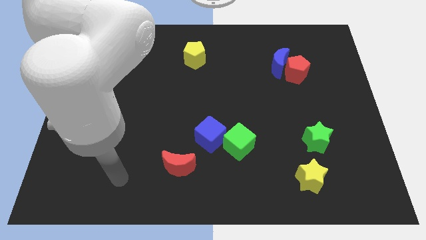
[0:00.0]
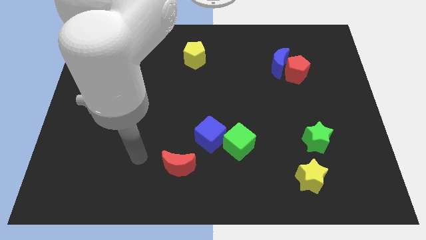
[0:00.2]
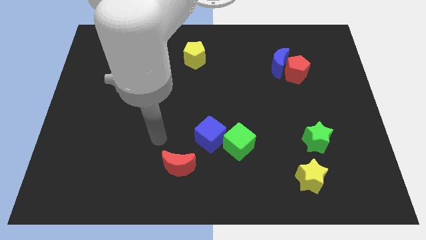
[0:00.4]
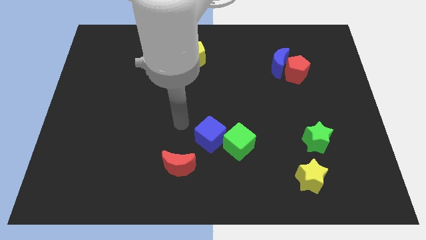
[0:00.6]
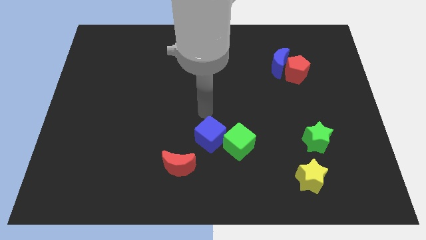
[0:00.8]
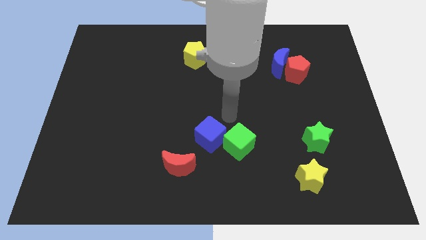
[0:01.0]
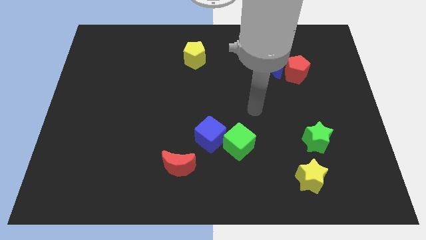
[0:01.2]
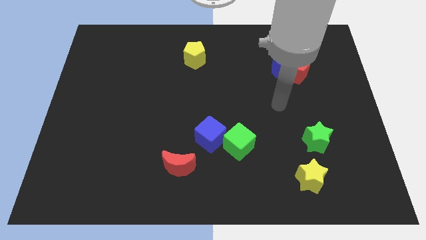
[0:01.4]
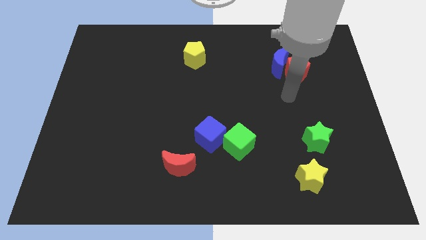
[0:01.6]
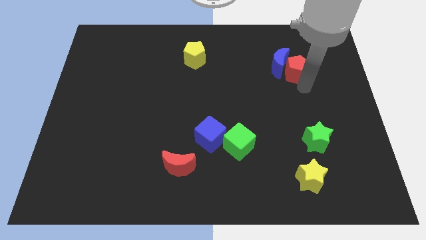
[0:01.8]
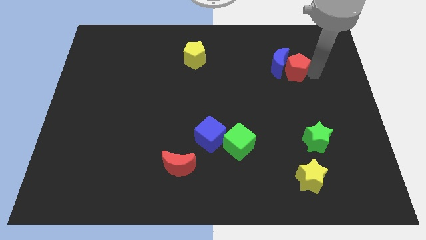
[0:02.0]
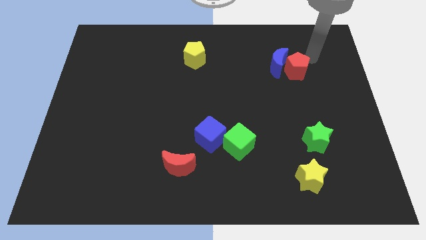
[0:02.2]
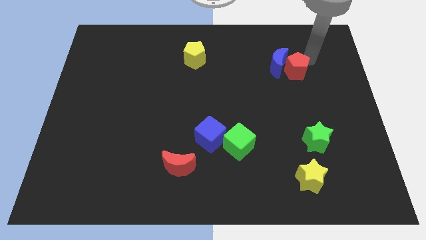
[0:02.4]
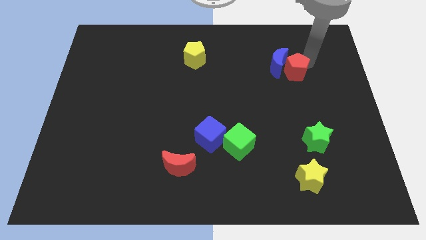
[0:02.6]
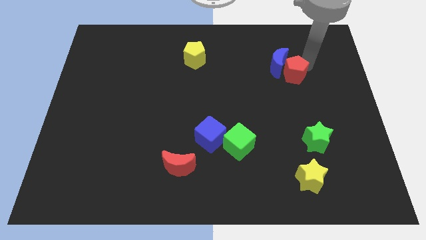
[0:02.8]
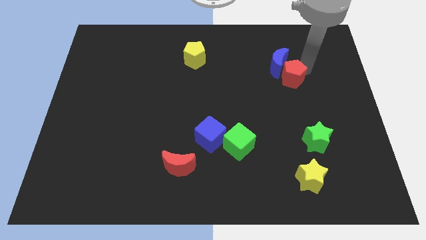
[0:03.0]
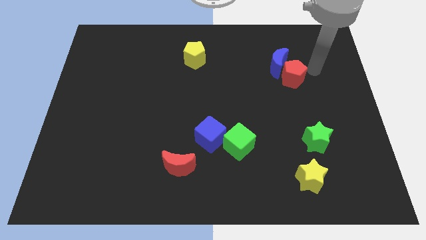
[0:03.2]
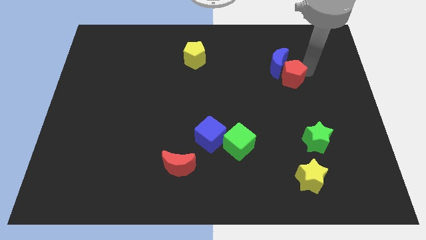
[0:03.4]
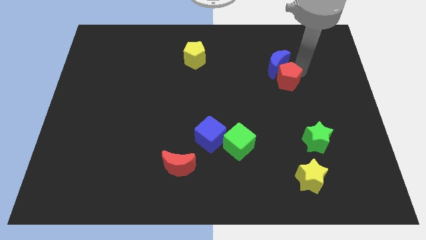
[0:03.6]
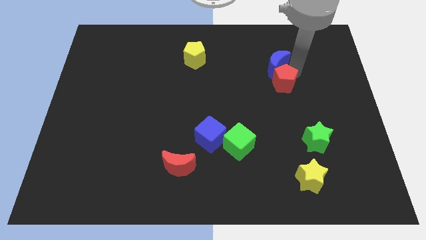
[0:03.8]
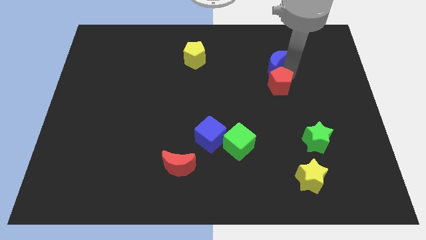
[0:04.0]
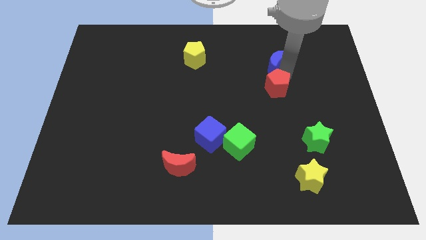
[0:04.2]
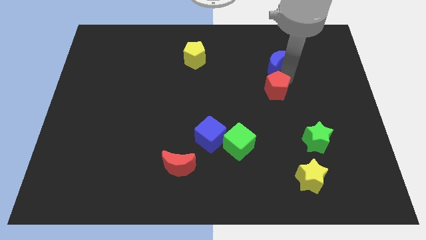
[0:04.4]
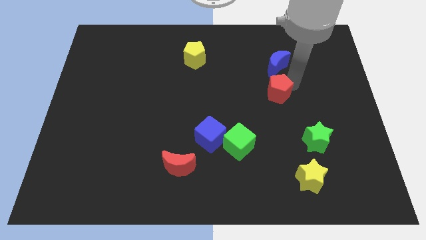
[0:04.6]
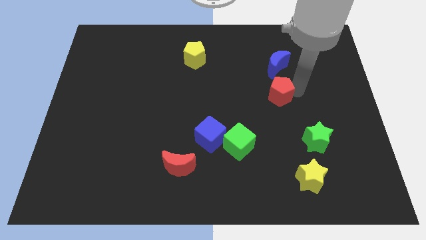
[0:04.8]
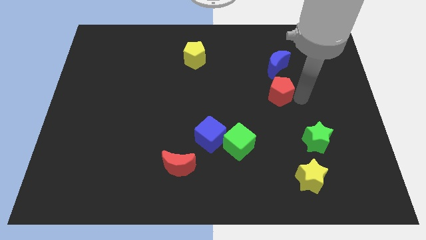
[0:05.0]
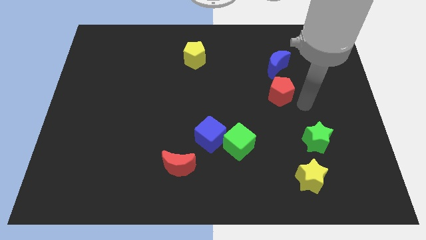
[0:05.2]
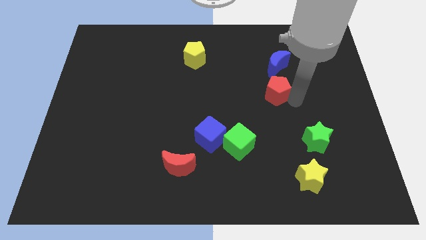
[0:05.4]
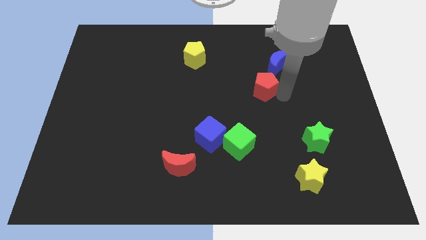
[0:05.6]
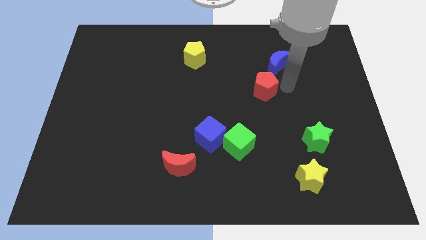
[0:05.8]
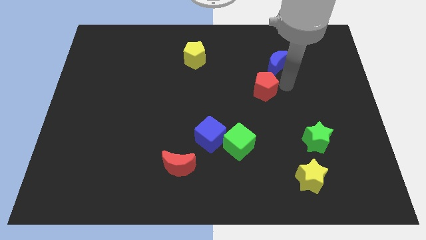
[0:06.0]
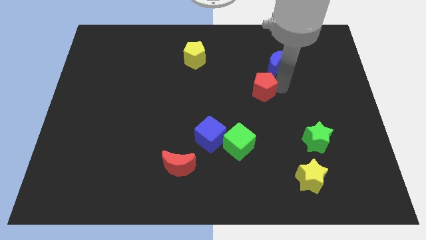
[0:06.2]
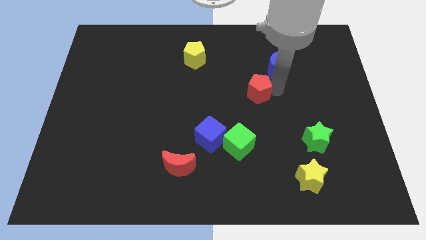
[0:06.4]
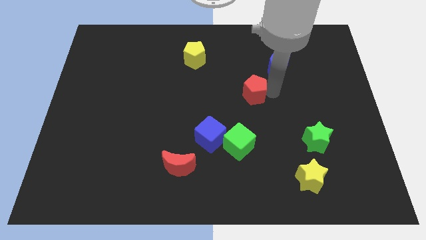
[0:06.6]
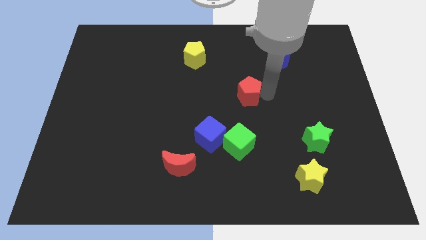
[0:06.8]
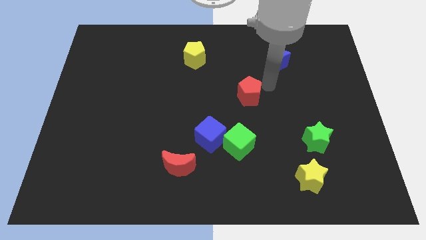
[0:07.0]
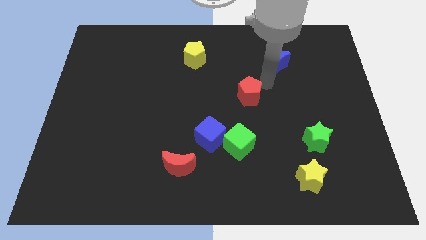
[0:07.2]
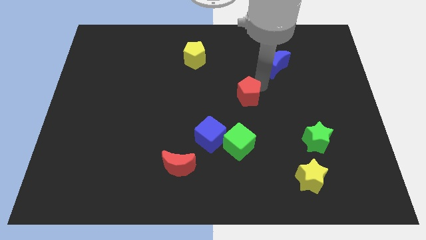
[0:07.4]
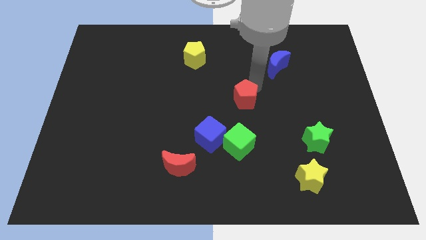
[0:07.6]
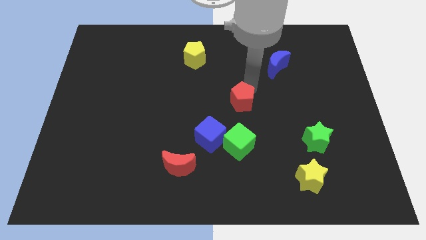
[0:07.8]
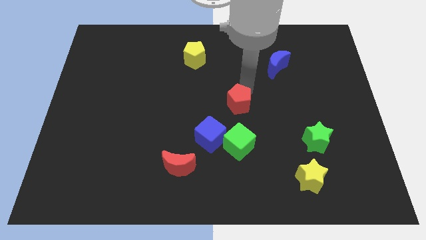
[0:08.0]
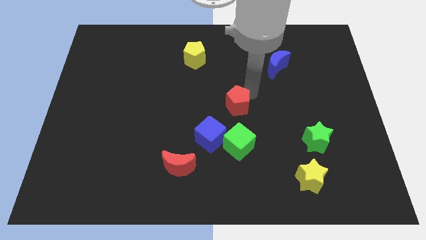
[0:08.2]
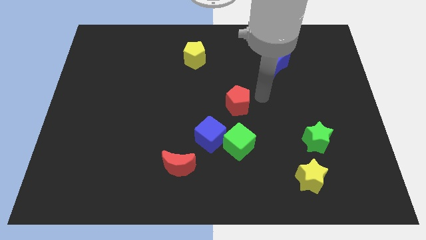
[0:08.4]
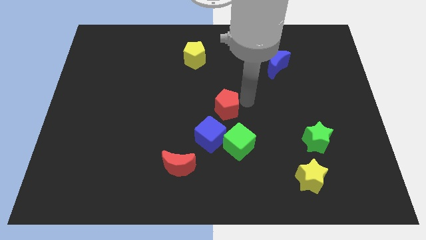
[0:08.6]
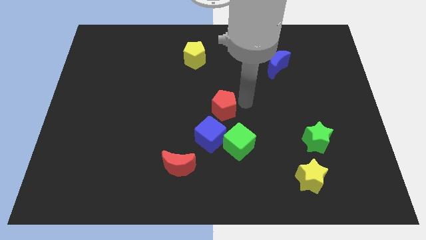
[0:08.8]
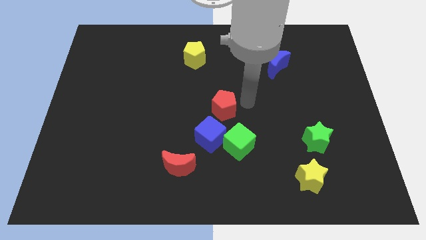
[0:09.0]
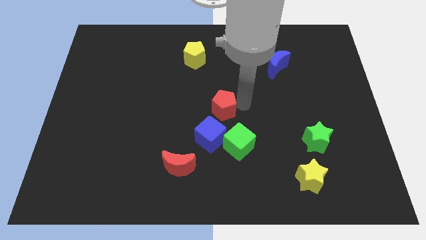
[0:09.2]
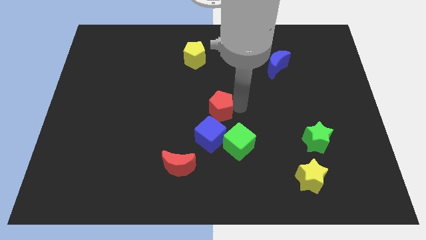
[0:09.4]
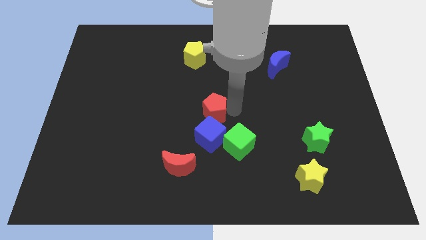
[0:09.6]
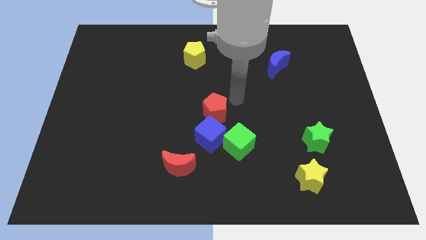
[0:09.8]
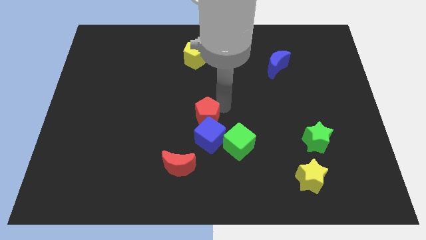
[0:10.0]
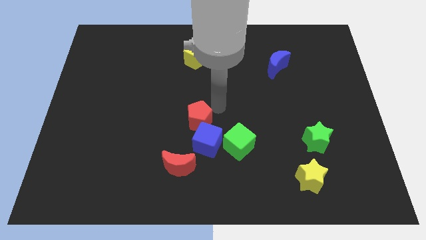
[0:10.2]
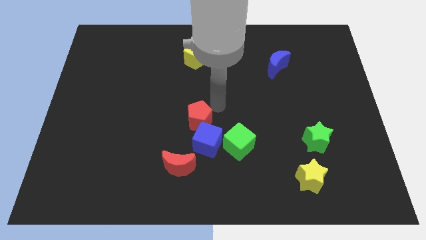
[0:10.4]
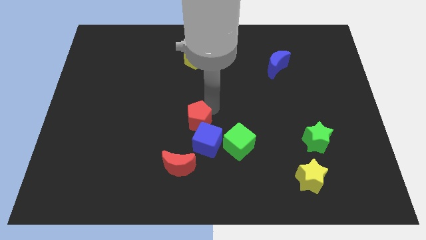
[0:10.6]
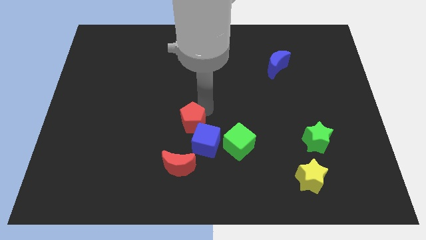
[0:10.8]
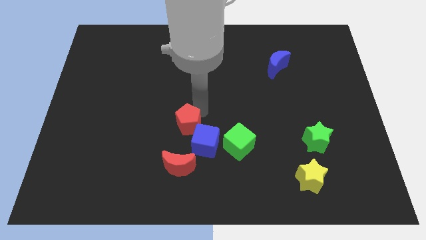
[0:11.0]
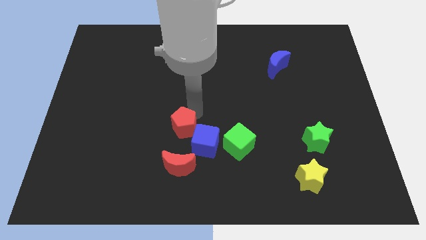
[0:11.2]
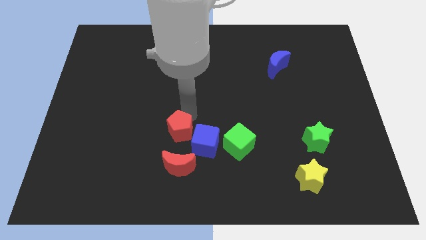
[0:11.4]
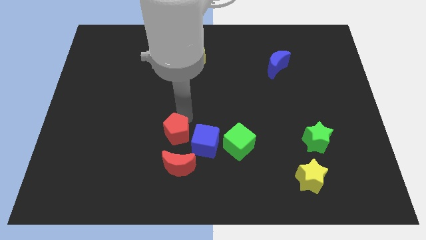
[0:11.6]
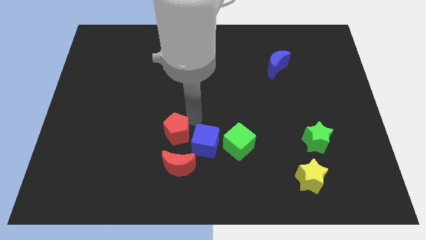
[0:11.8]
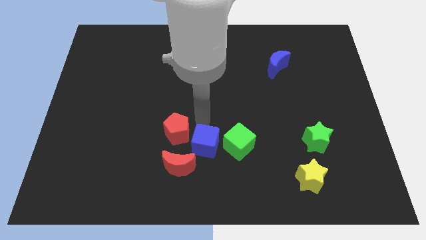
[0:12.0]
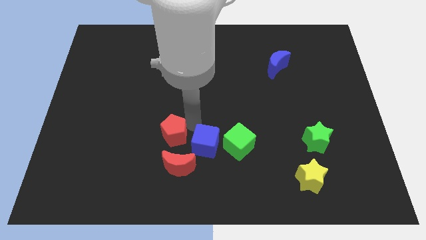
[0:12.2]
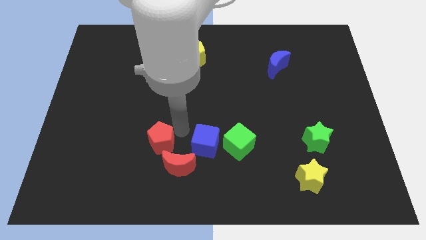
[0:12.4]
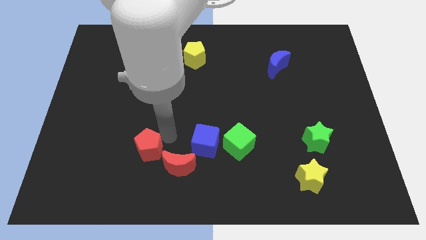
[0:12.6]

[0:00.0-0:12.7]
put the red pentagon left of the red moon

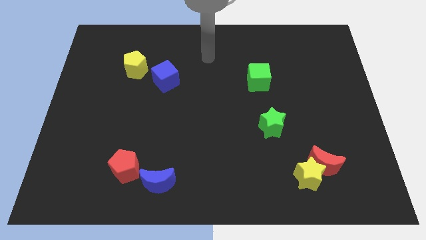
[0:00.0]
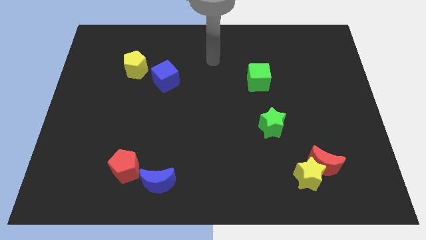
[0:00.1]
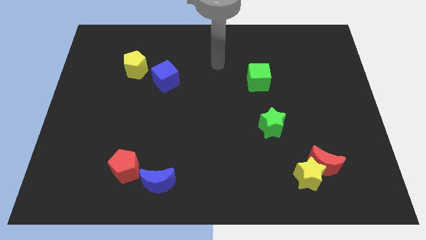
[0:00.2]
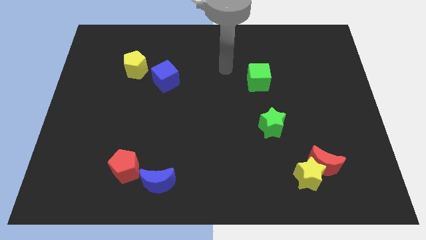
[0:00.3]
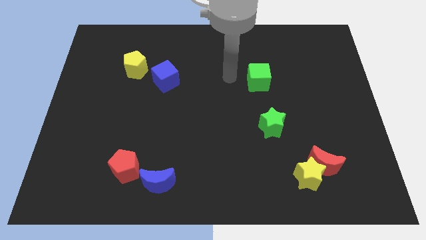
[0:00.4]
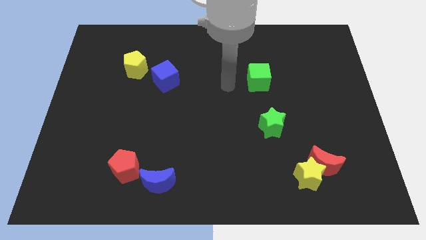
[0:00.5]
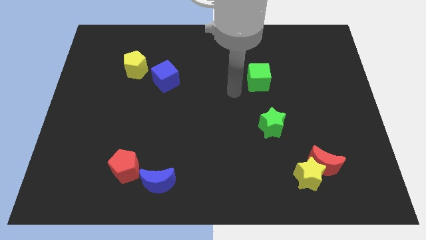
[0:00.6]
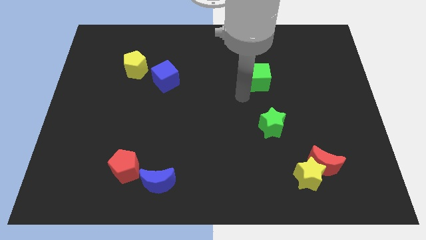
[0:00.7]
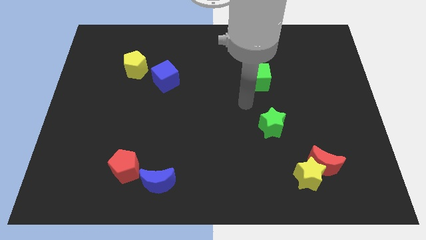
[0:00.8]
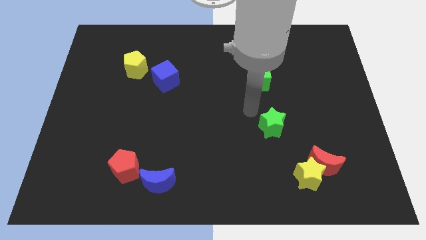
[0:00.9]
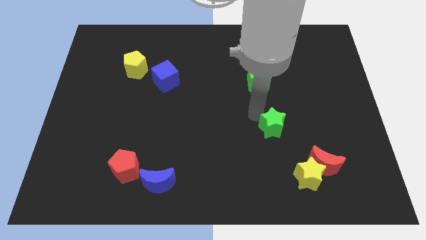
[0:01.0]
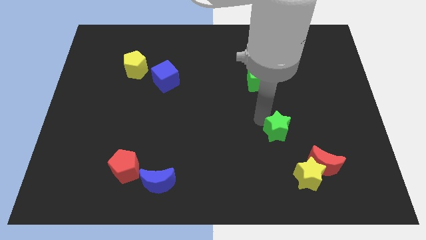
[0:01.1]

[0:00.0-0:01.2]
push the green star to the top left of the red moon
